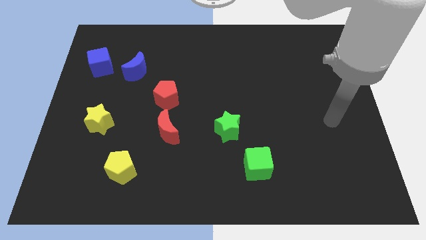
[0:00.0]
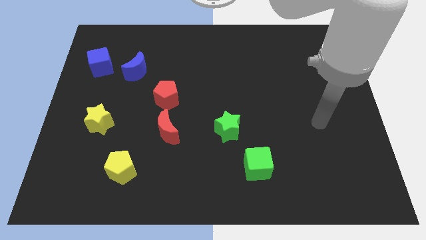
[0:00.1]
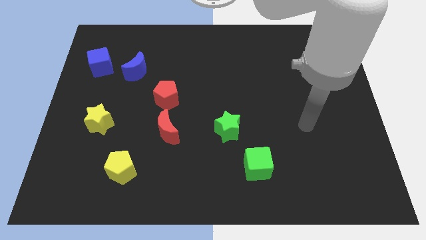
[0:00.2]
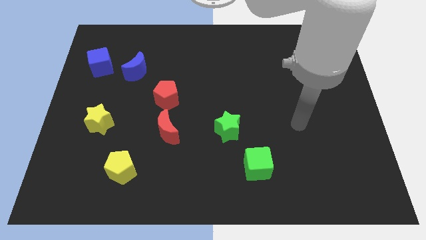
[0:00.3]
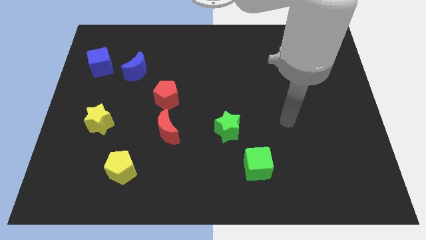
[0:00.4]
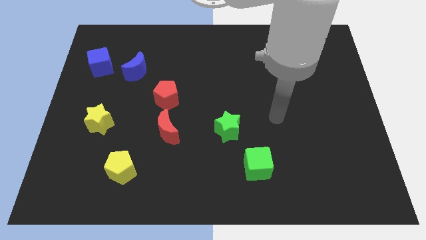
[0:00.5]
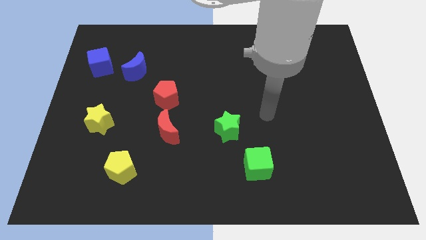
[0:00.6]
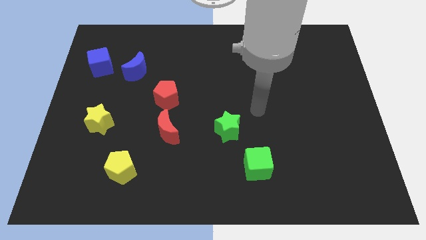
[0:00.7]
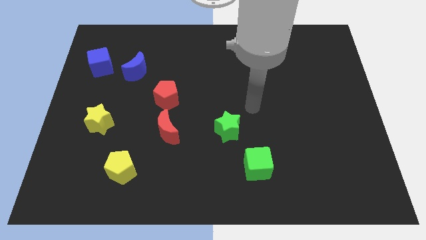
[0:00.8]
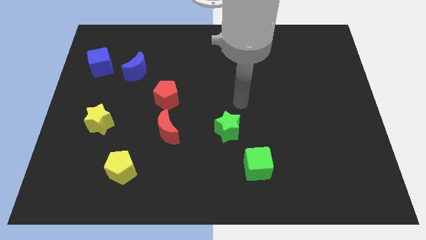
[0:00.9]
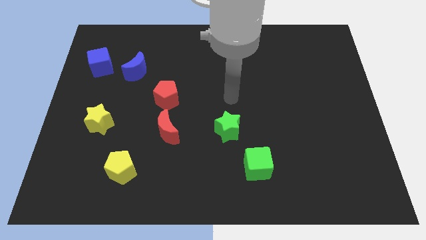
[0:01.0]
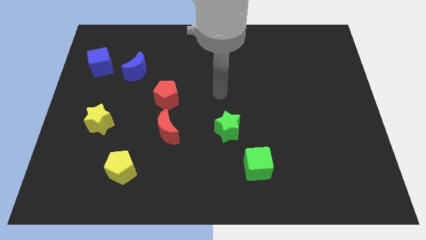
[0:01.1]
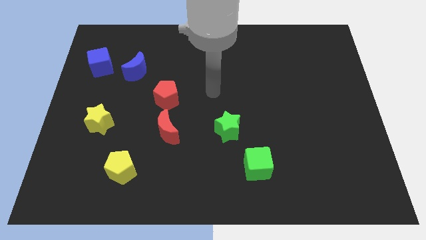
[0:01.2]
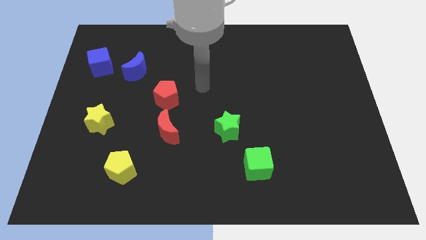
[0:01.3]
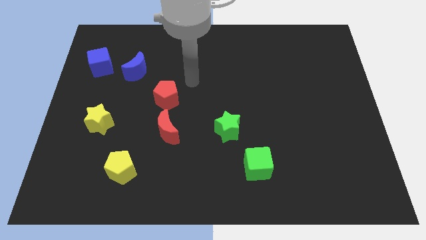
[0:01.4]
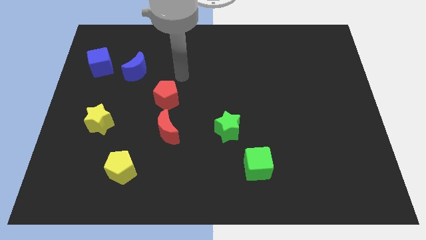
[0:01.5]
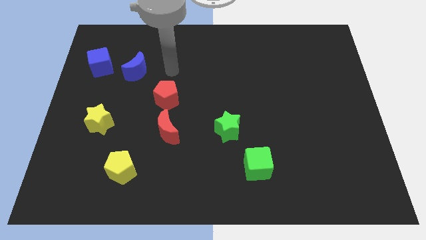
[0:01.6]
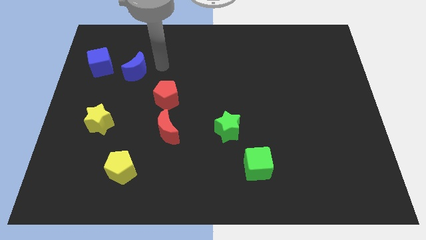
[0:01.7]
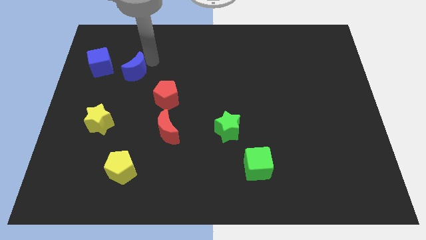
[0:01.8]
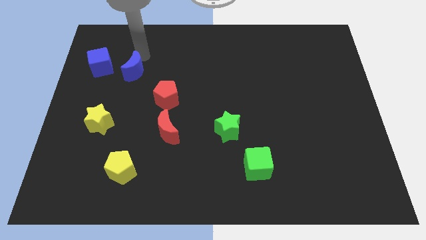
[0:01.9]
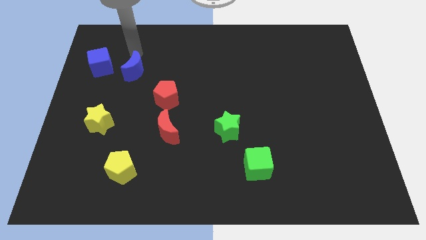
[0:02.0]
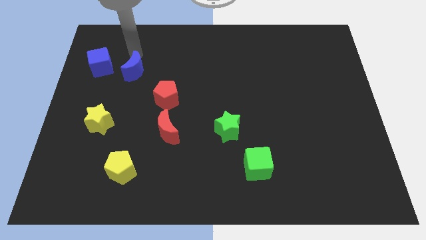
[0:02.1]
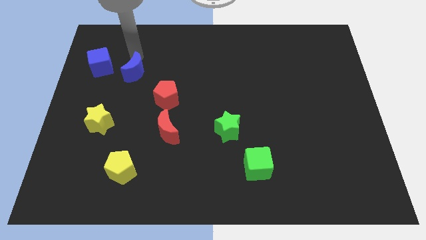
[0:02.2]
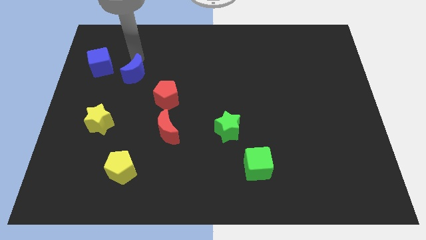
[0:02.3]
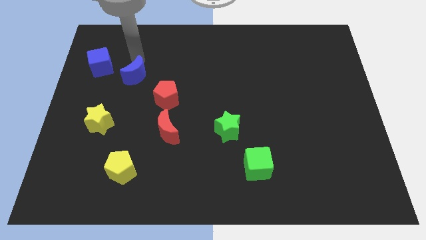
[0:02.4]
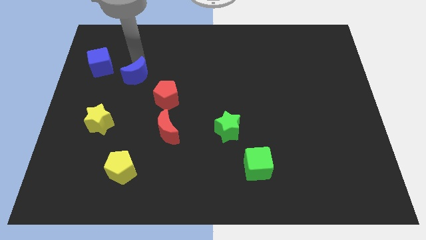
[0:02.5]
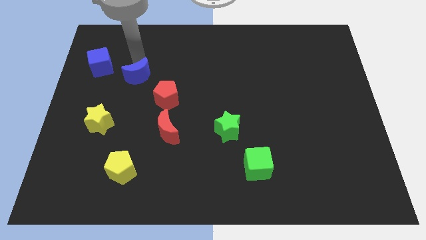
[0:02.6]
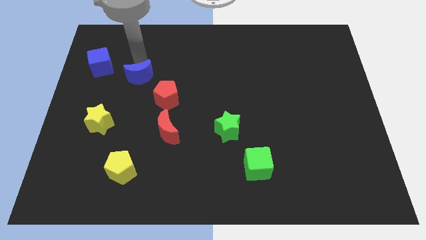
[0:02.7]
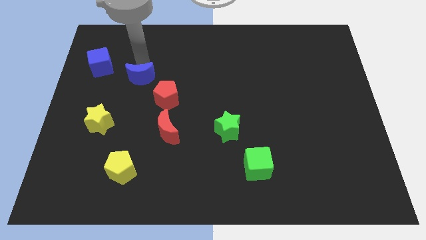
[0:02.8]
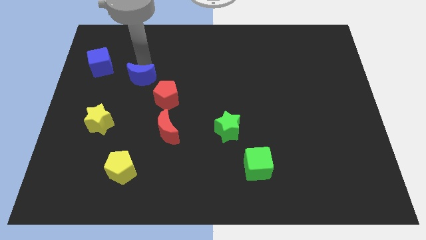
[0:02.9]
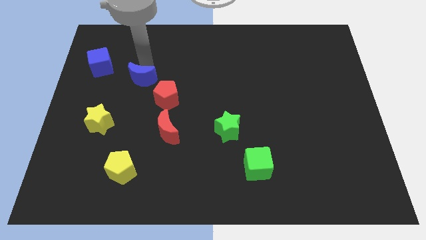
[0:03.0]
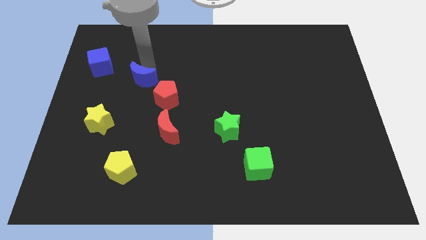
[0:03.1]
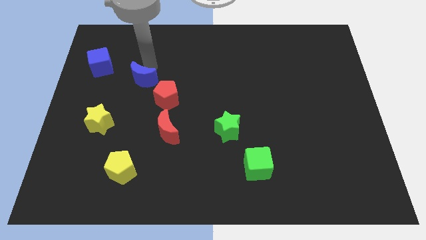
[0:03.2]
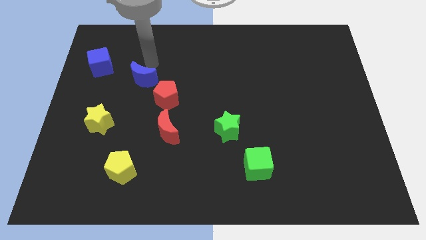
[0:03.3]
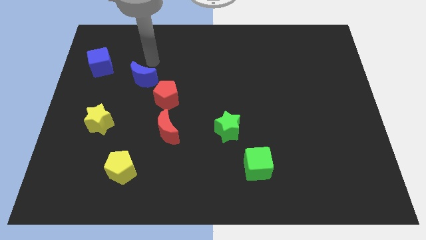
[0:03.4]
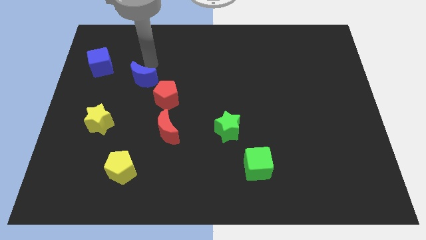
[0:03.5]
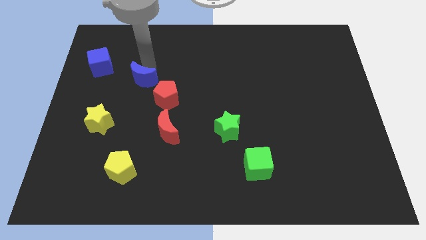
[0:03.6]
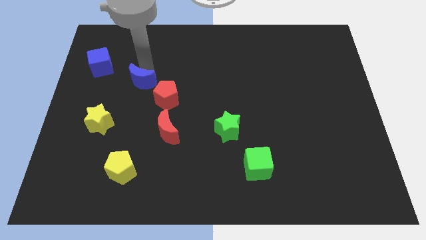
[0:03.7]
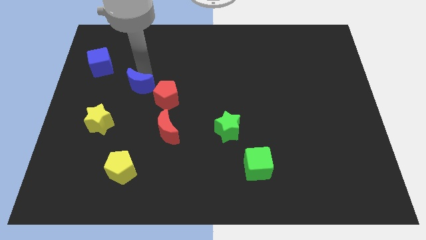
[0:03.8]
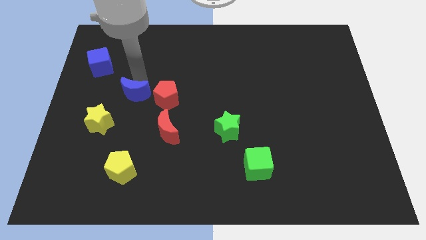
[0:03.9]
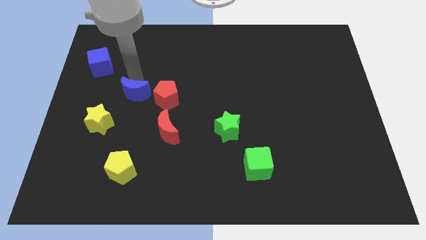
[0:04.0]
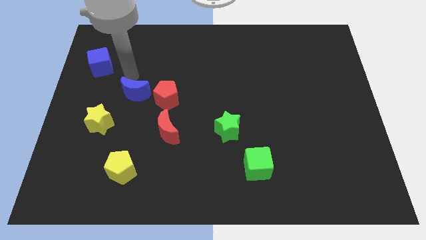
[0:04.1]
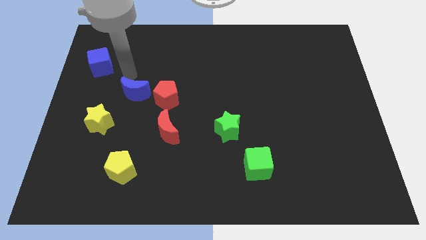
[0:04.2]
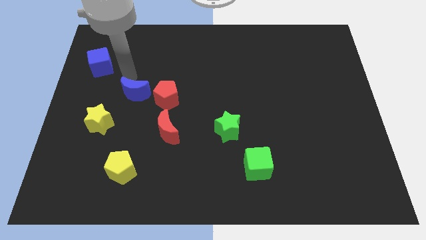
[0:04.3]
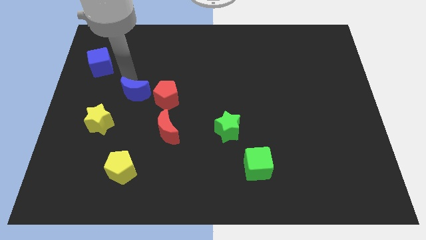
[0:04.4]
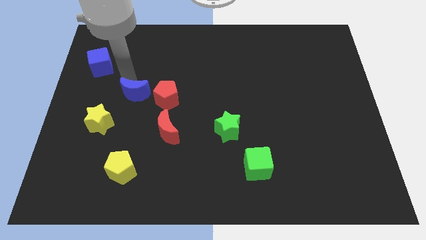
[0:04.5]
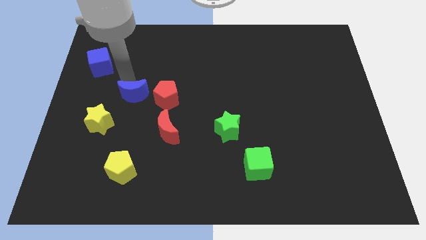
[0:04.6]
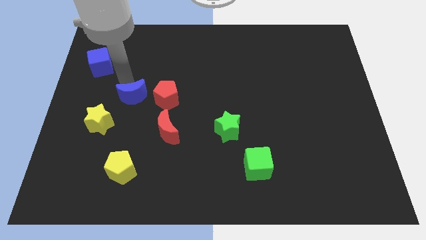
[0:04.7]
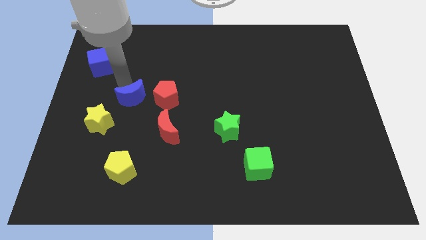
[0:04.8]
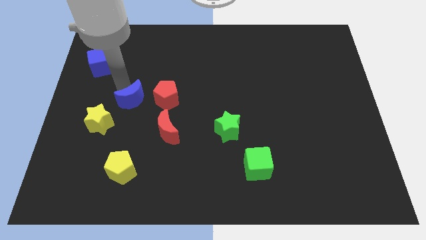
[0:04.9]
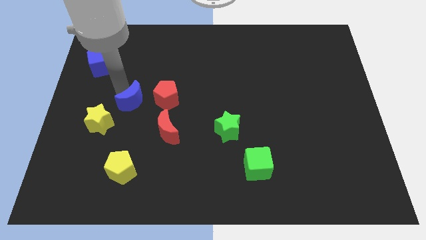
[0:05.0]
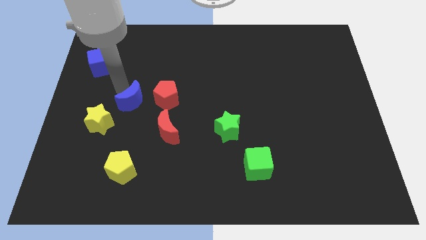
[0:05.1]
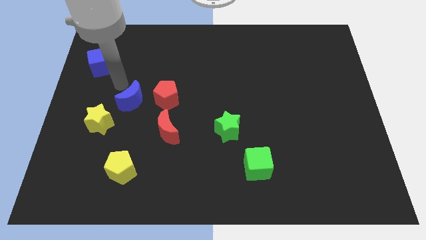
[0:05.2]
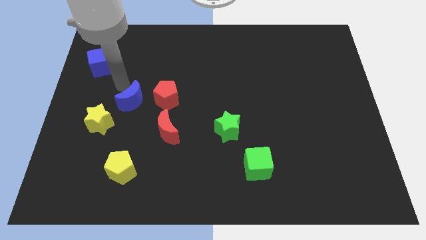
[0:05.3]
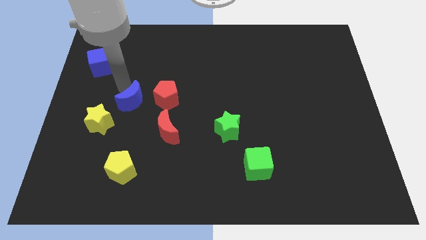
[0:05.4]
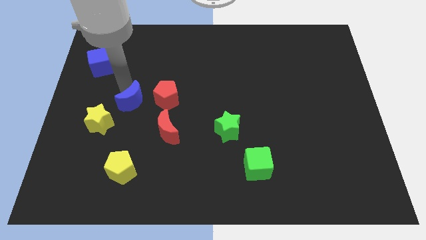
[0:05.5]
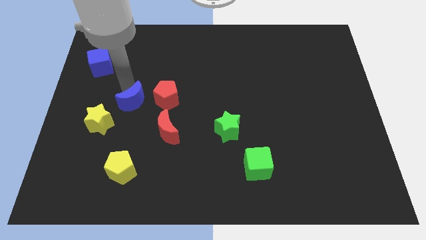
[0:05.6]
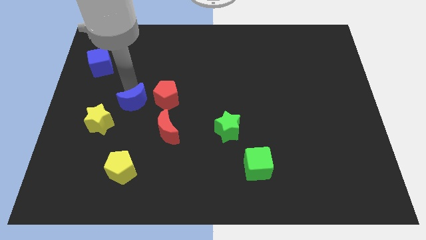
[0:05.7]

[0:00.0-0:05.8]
move the blue moon diagonally down and to the left of the red pentagon

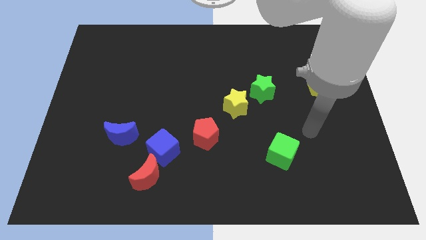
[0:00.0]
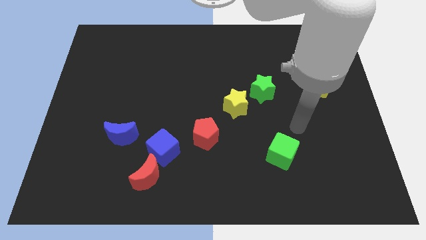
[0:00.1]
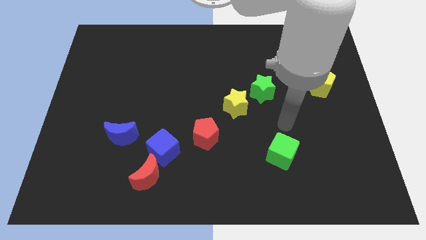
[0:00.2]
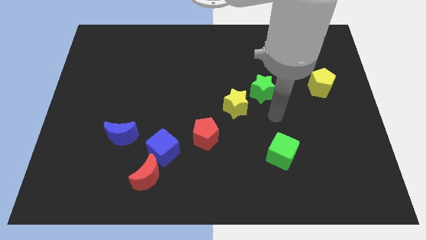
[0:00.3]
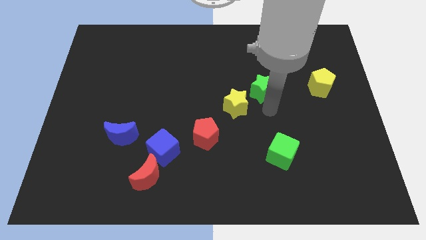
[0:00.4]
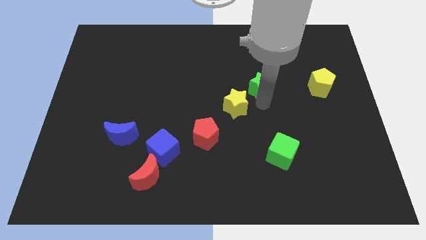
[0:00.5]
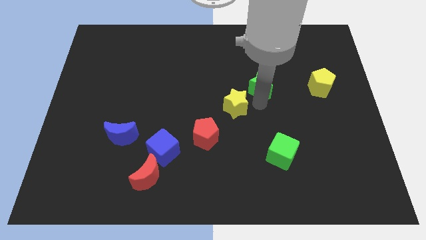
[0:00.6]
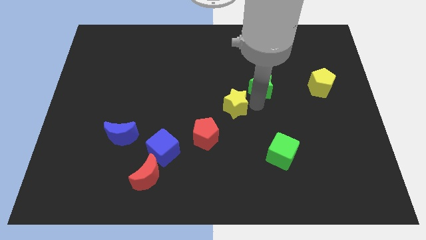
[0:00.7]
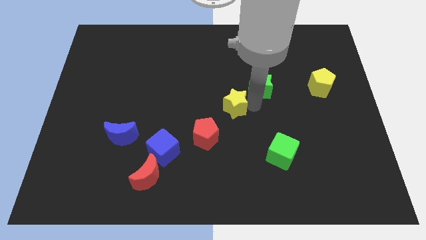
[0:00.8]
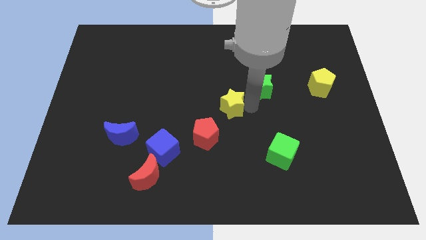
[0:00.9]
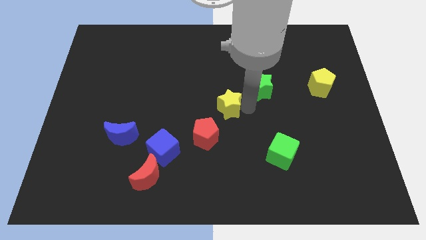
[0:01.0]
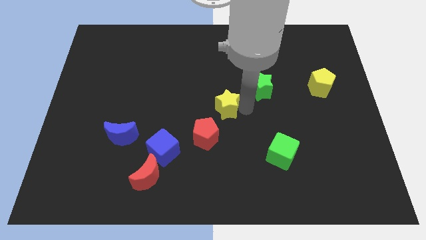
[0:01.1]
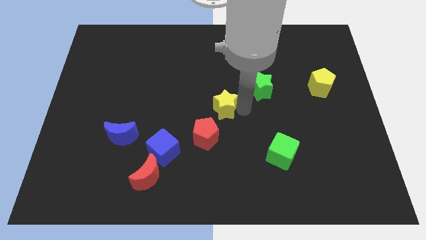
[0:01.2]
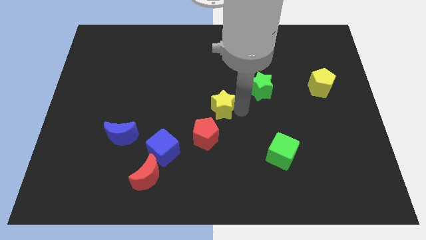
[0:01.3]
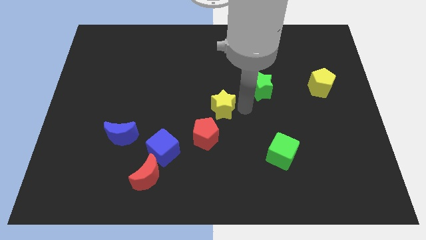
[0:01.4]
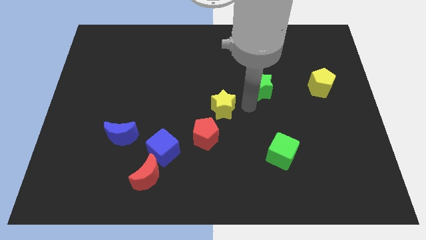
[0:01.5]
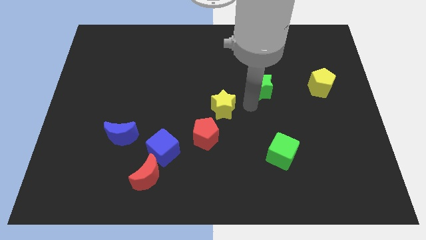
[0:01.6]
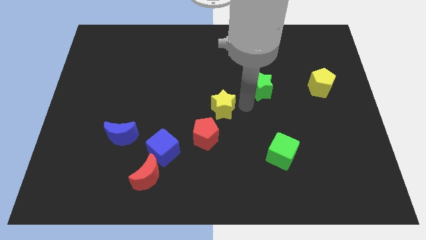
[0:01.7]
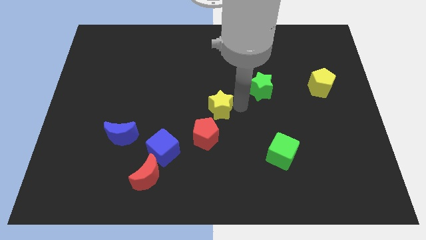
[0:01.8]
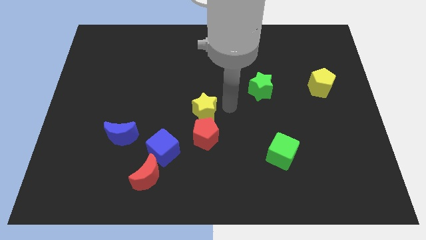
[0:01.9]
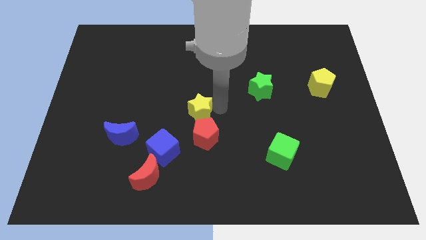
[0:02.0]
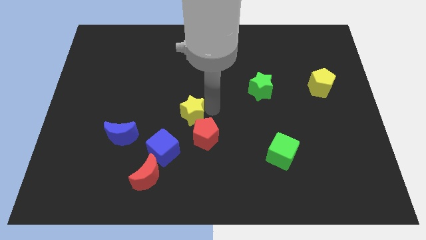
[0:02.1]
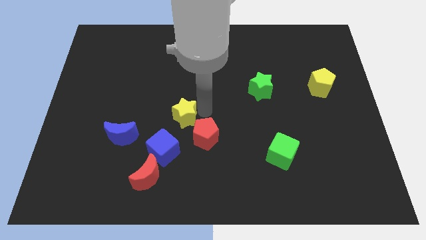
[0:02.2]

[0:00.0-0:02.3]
put the yellow star to the top side of the blue cube
